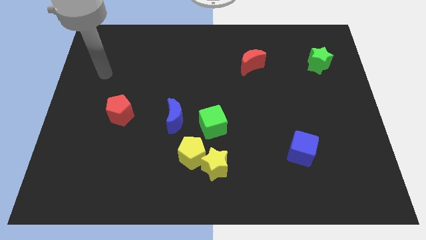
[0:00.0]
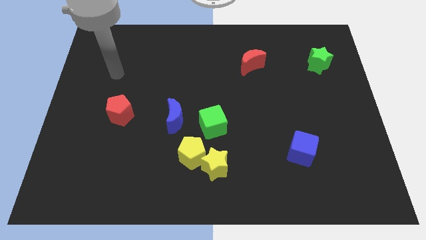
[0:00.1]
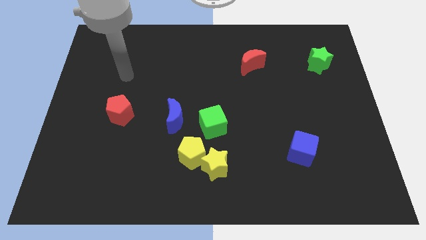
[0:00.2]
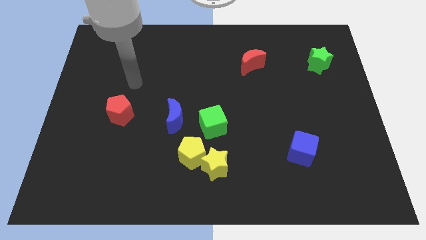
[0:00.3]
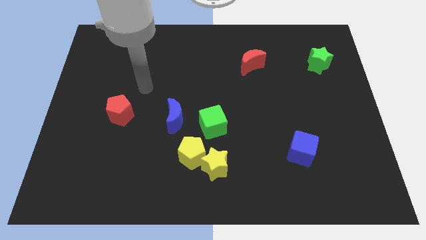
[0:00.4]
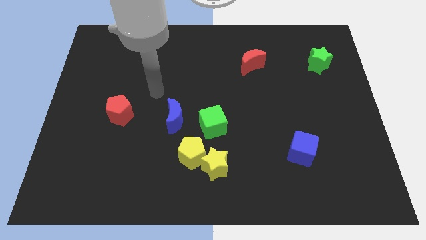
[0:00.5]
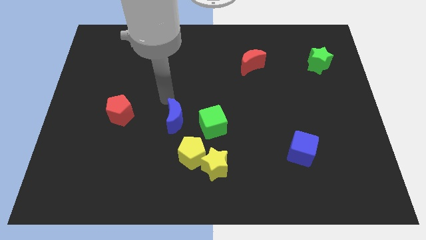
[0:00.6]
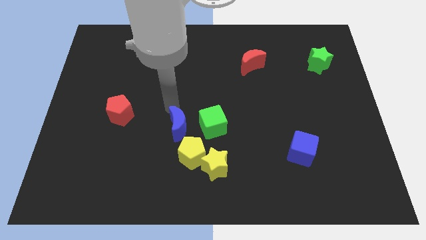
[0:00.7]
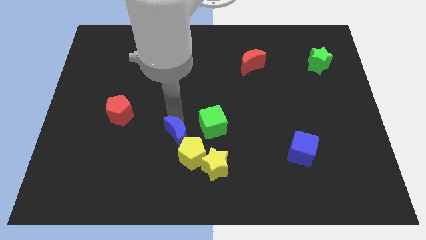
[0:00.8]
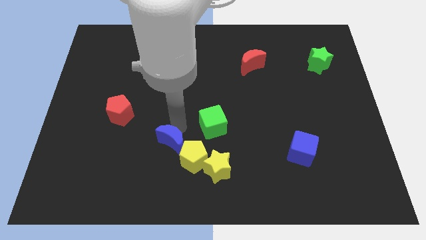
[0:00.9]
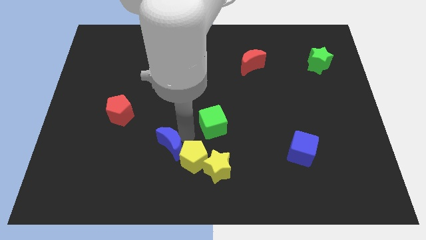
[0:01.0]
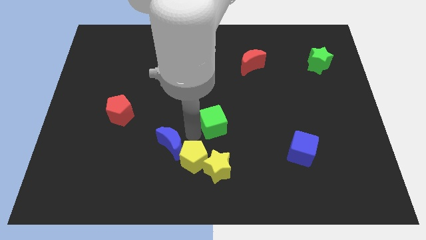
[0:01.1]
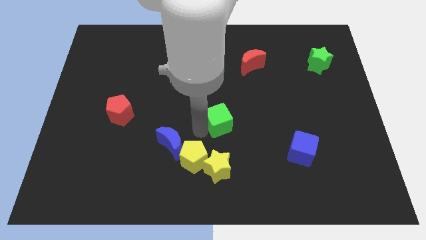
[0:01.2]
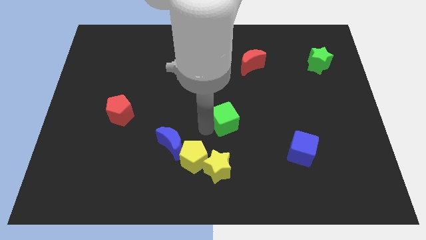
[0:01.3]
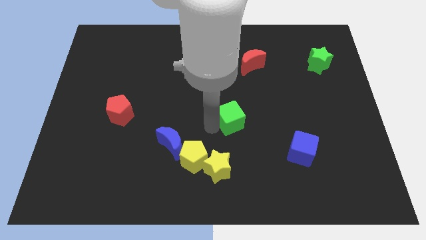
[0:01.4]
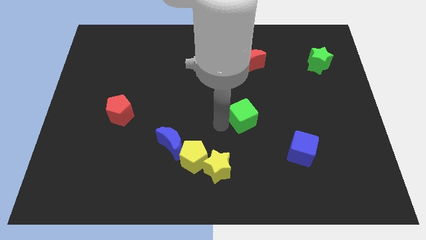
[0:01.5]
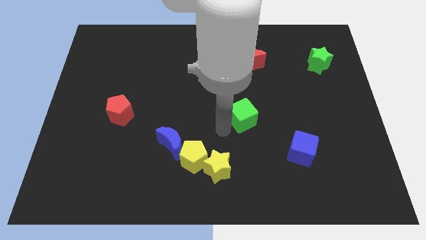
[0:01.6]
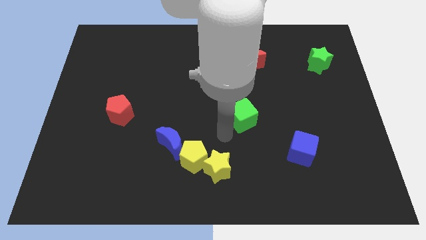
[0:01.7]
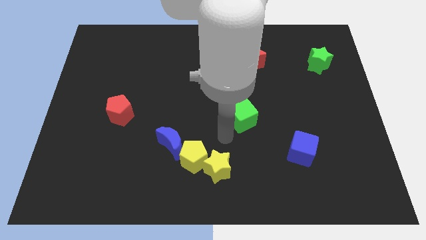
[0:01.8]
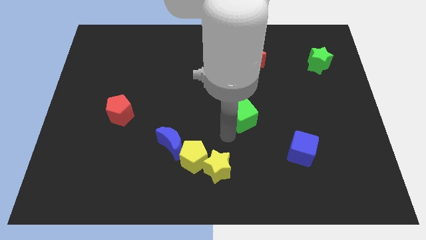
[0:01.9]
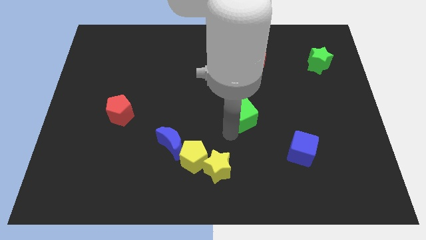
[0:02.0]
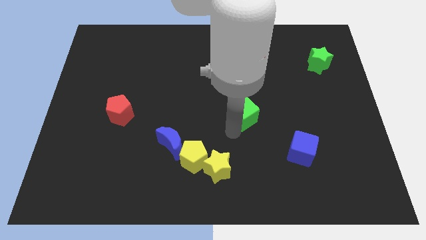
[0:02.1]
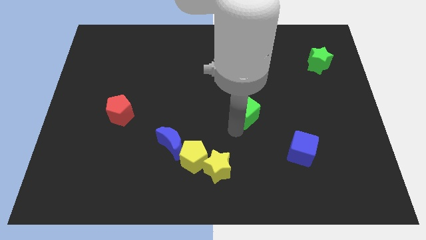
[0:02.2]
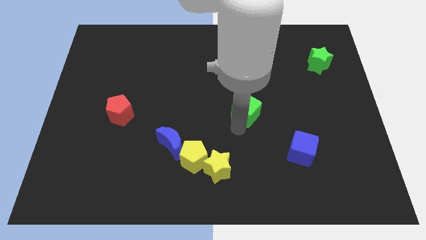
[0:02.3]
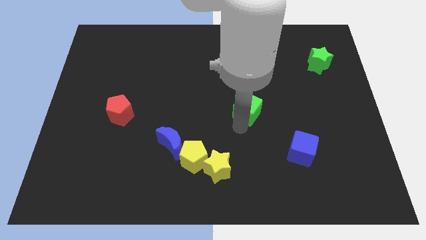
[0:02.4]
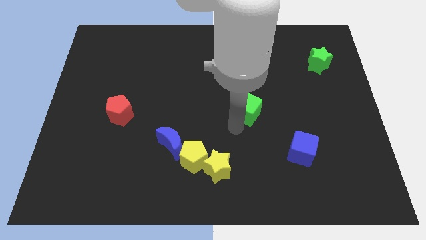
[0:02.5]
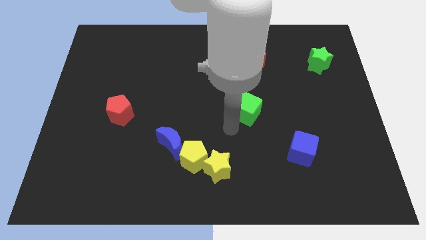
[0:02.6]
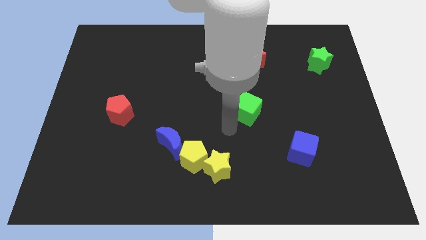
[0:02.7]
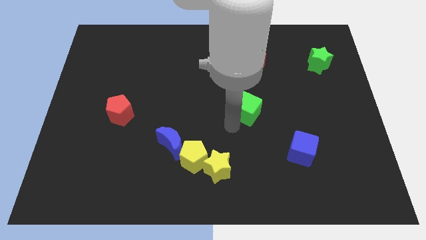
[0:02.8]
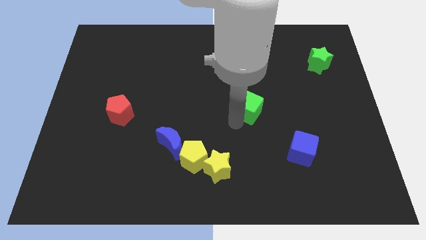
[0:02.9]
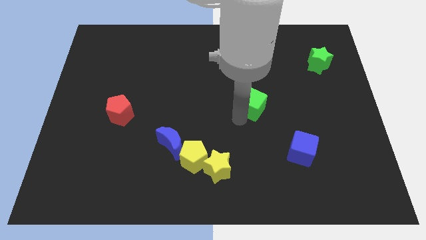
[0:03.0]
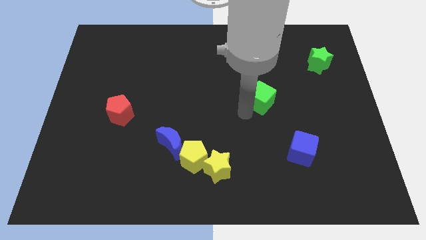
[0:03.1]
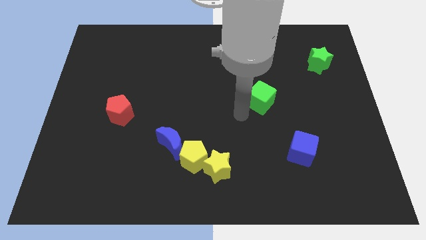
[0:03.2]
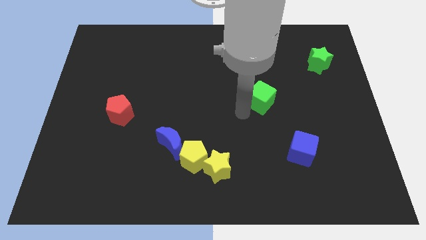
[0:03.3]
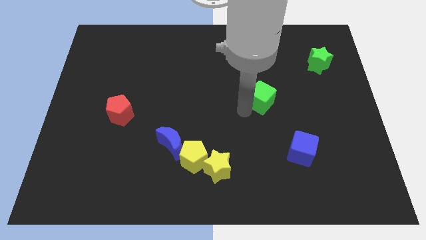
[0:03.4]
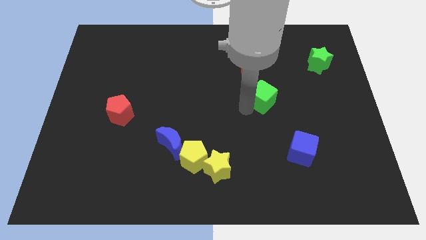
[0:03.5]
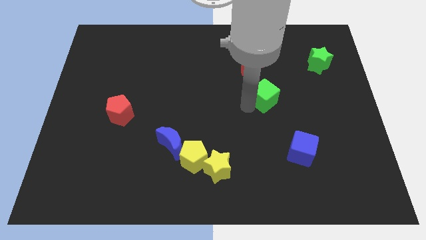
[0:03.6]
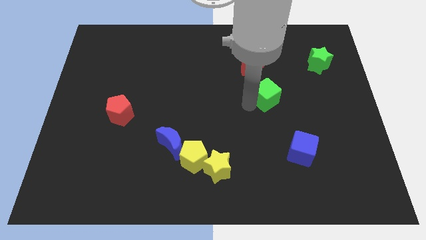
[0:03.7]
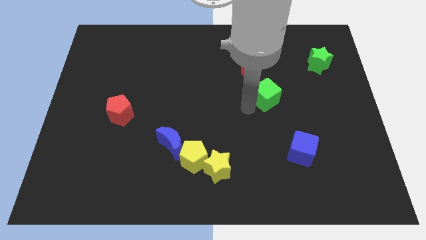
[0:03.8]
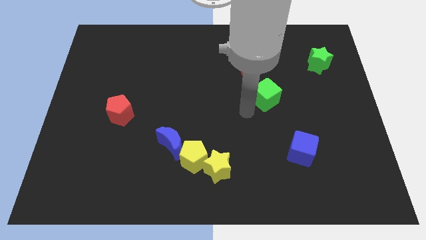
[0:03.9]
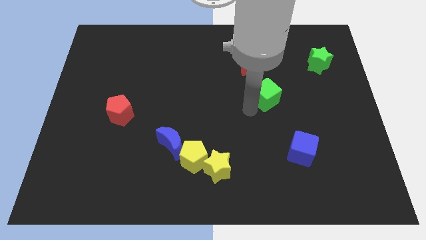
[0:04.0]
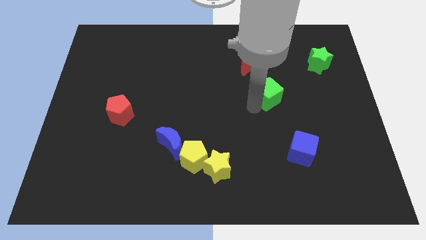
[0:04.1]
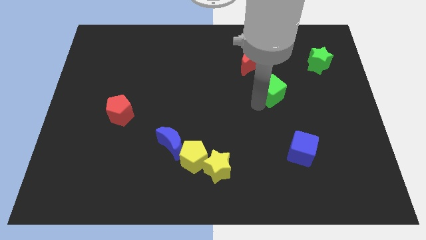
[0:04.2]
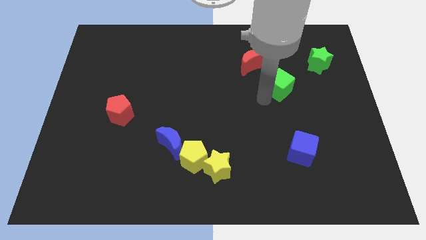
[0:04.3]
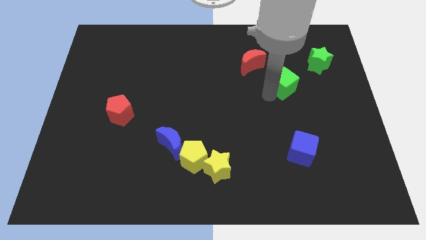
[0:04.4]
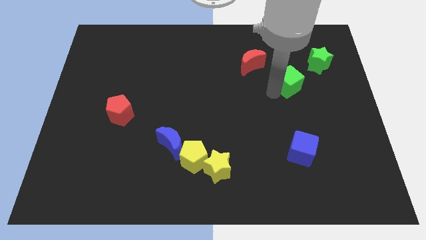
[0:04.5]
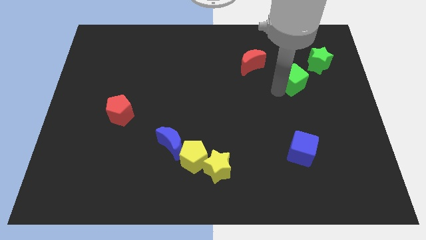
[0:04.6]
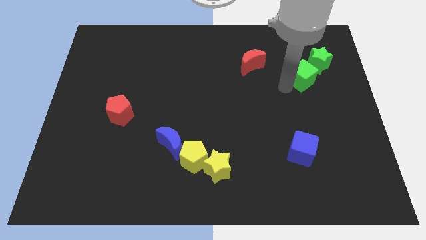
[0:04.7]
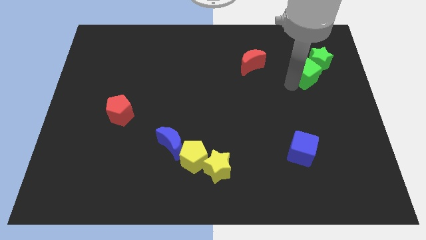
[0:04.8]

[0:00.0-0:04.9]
slide the green cube towards the green star

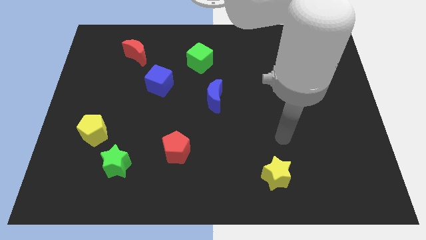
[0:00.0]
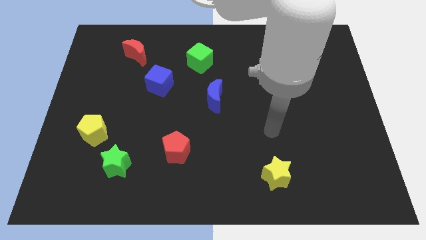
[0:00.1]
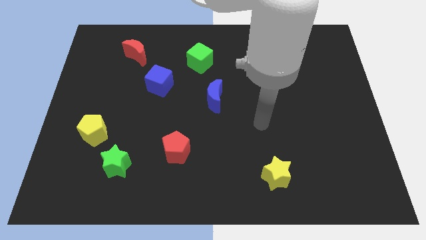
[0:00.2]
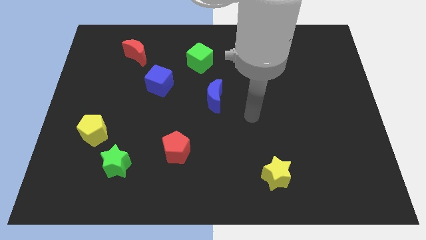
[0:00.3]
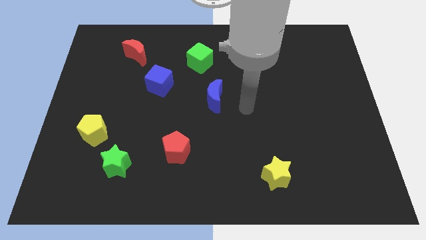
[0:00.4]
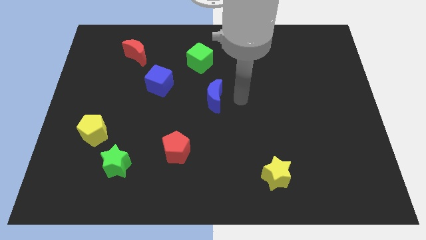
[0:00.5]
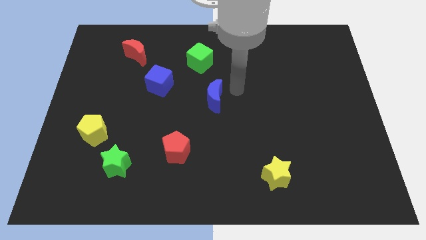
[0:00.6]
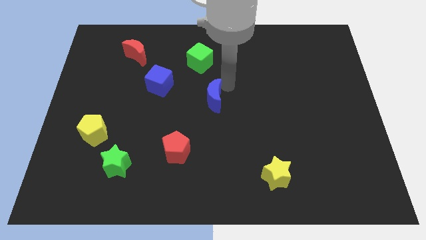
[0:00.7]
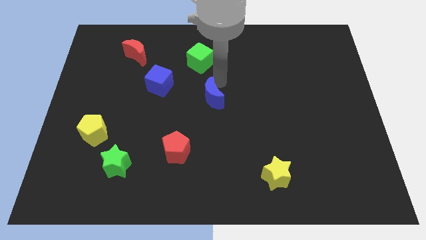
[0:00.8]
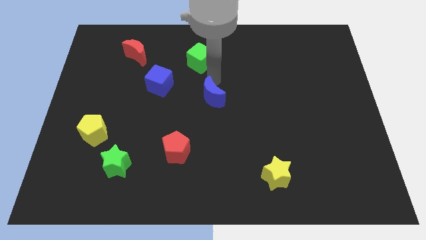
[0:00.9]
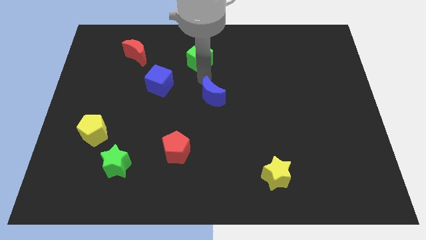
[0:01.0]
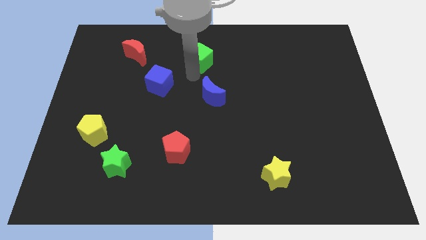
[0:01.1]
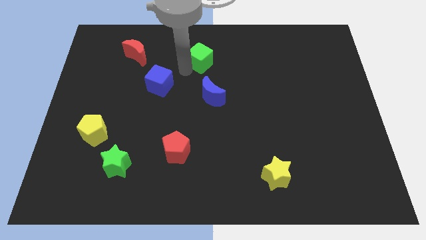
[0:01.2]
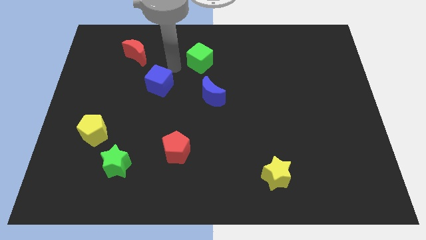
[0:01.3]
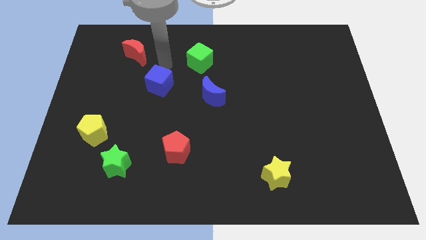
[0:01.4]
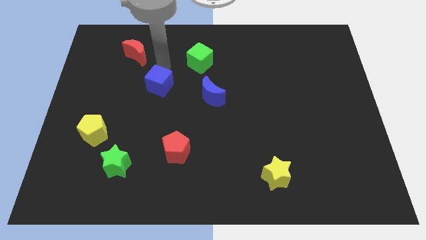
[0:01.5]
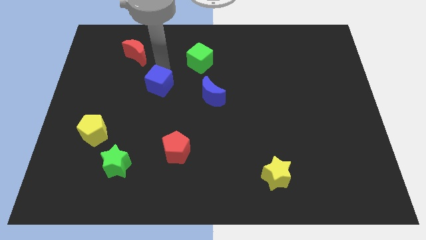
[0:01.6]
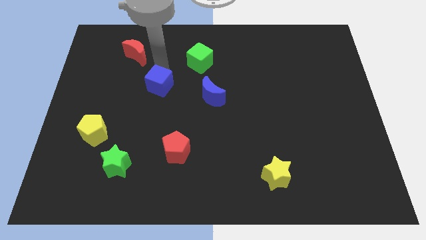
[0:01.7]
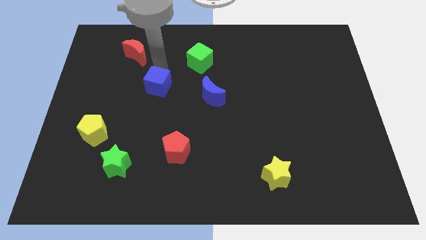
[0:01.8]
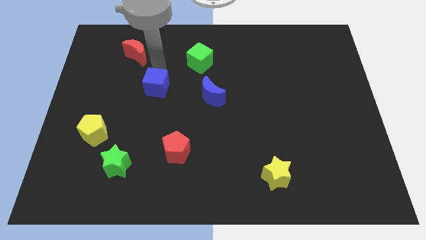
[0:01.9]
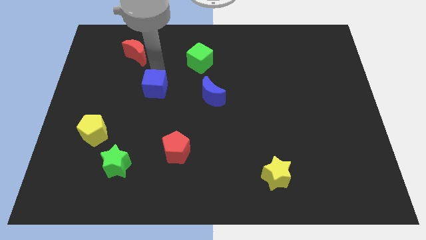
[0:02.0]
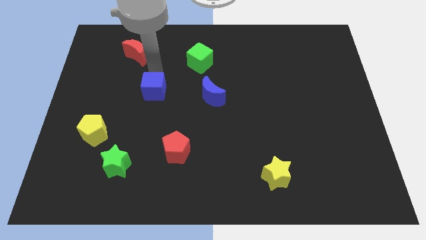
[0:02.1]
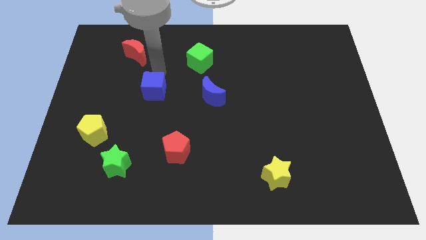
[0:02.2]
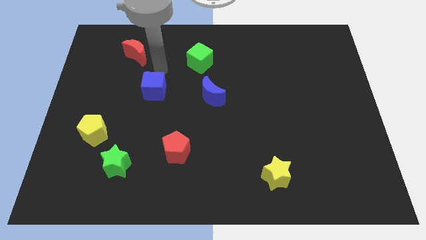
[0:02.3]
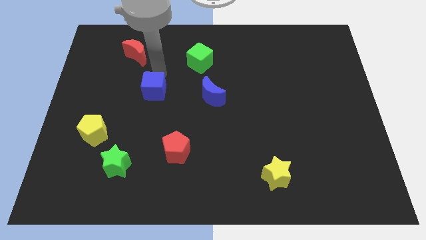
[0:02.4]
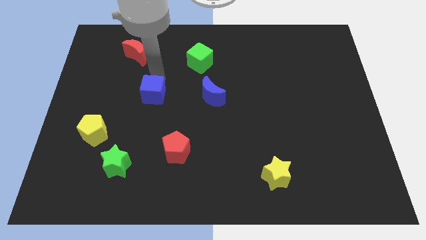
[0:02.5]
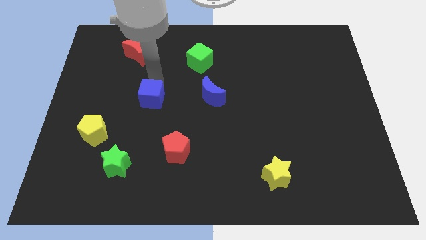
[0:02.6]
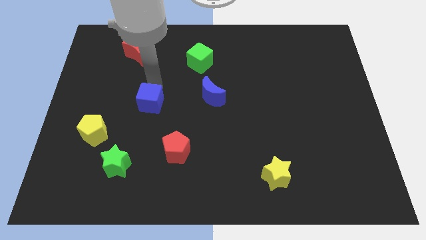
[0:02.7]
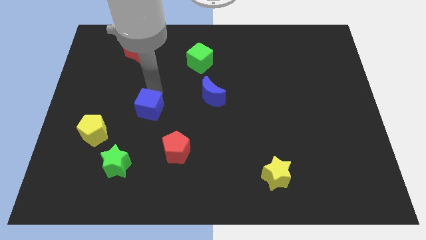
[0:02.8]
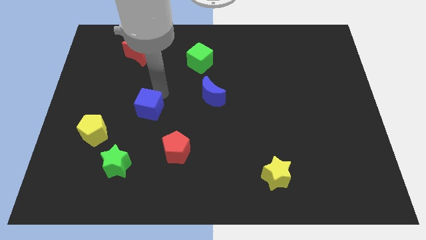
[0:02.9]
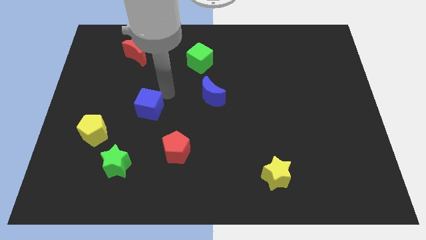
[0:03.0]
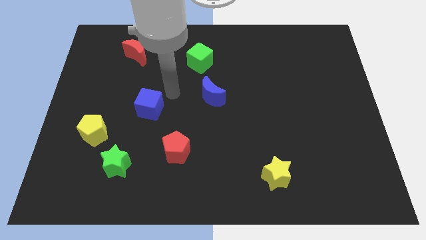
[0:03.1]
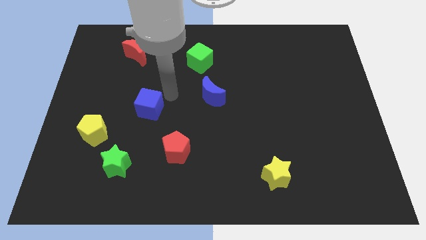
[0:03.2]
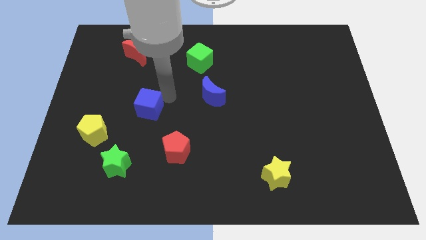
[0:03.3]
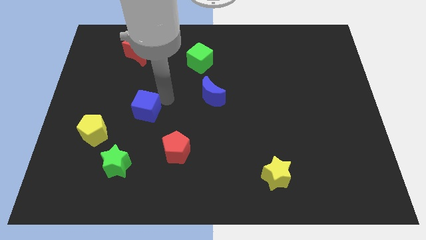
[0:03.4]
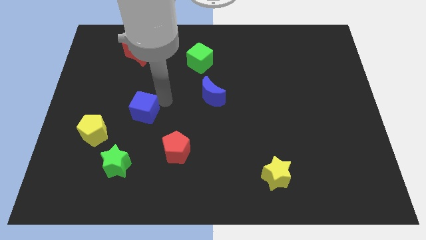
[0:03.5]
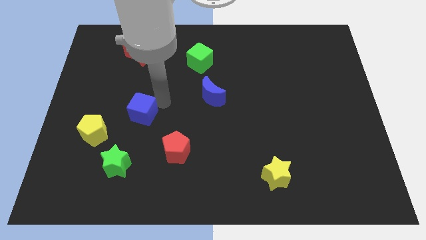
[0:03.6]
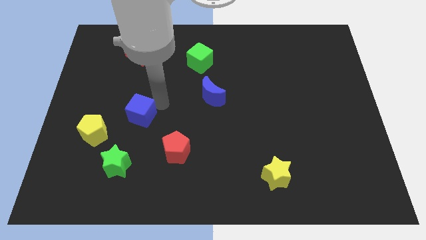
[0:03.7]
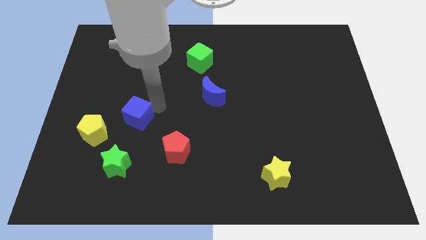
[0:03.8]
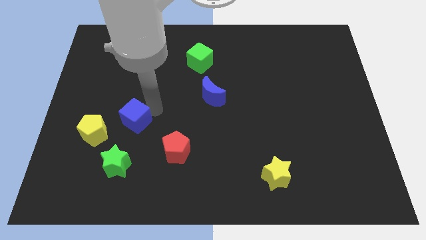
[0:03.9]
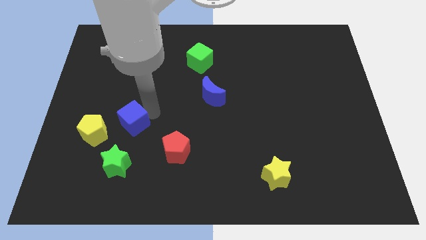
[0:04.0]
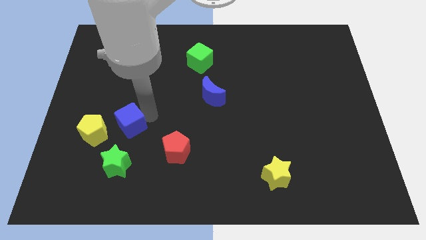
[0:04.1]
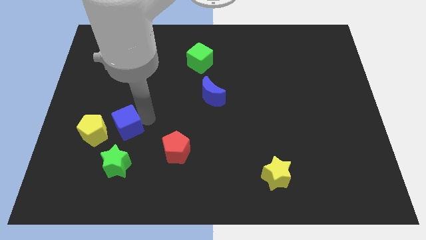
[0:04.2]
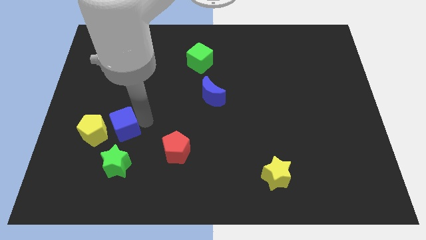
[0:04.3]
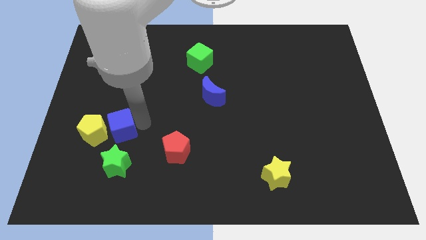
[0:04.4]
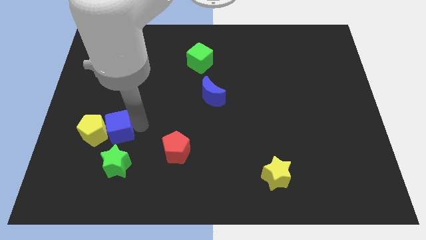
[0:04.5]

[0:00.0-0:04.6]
slide the blue cube to the yellow pentagon
